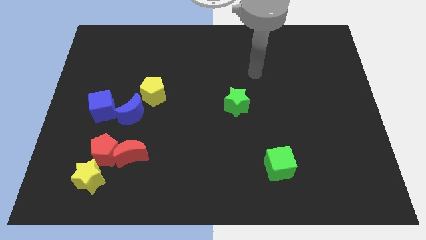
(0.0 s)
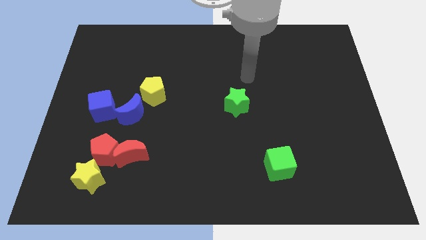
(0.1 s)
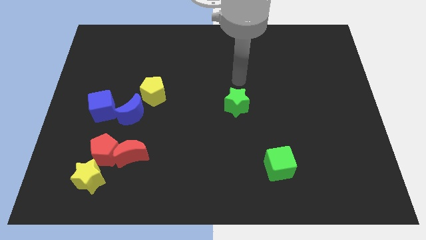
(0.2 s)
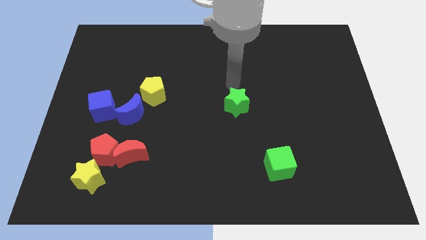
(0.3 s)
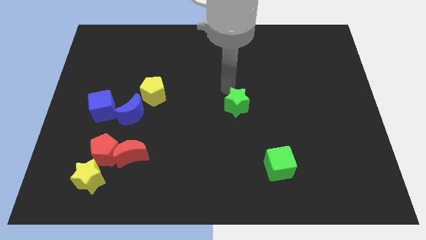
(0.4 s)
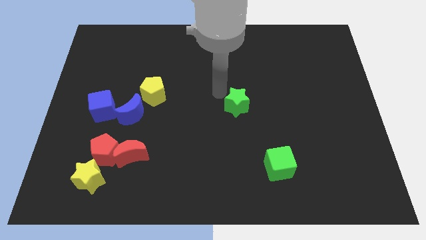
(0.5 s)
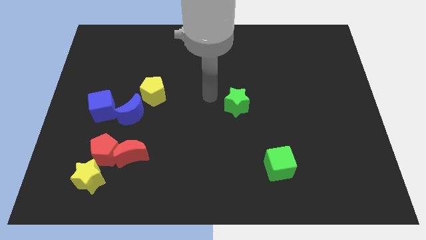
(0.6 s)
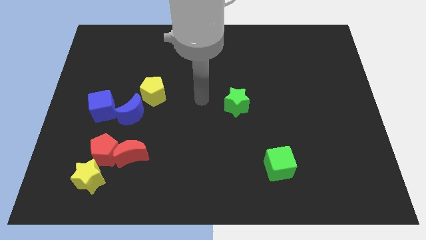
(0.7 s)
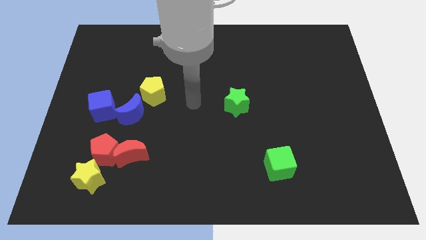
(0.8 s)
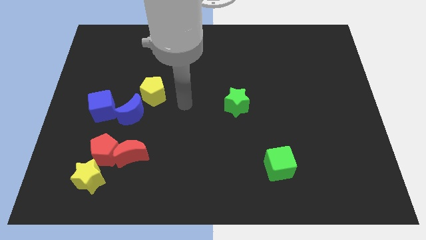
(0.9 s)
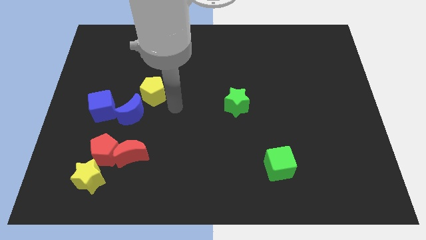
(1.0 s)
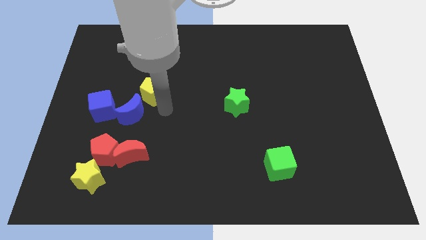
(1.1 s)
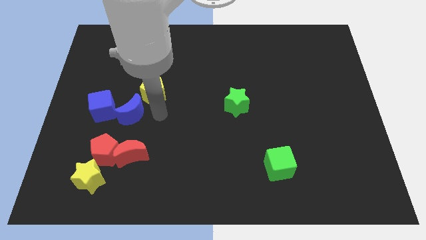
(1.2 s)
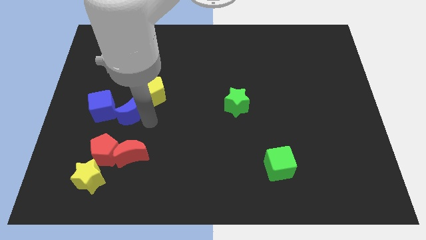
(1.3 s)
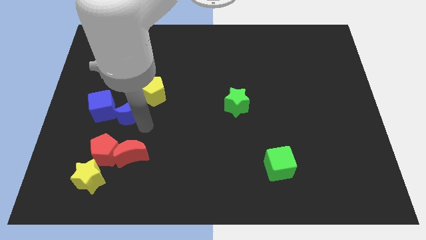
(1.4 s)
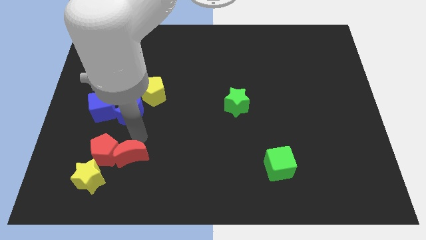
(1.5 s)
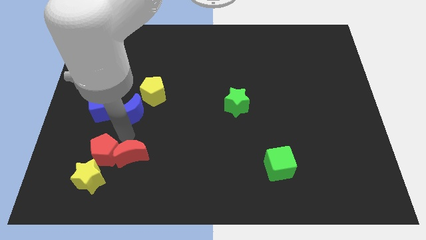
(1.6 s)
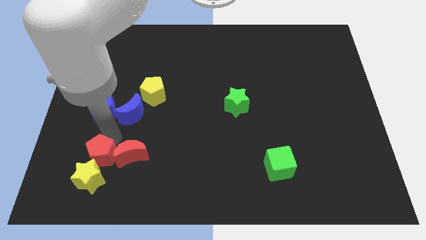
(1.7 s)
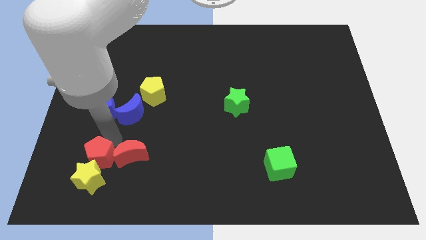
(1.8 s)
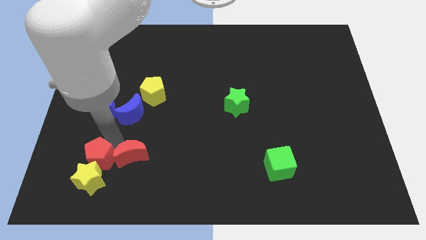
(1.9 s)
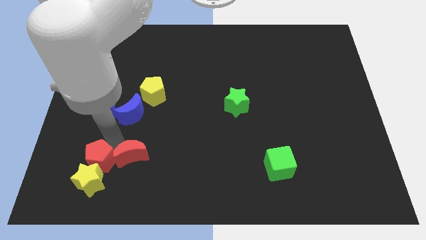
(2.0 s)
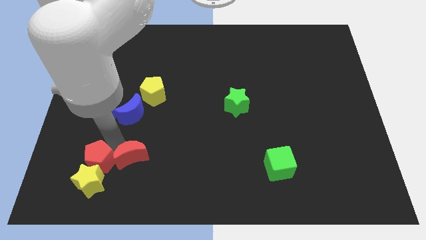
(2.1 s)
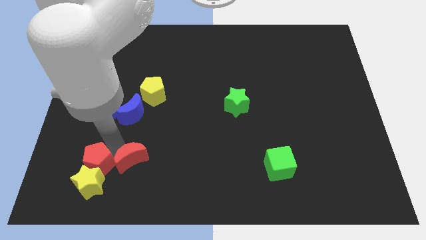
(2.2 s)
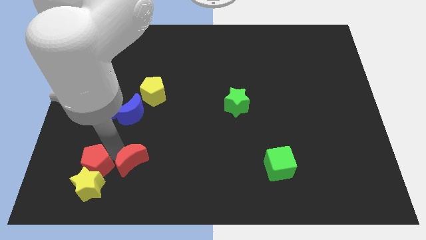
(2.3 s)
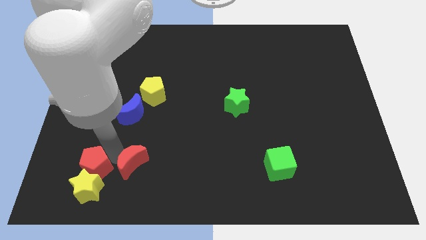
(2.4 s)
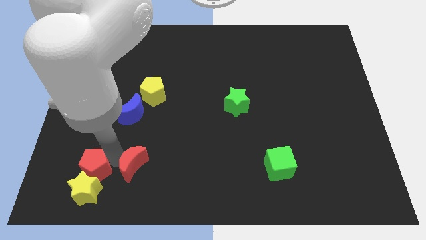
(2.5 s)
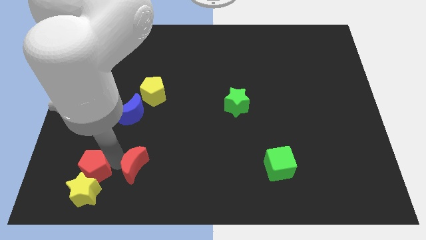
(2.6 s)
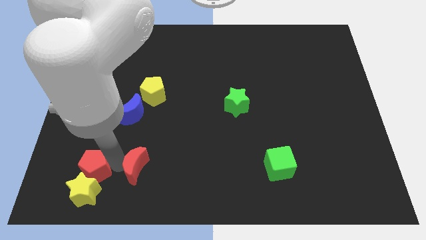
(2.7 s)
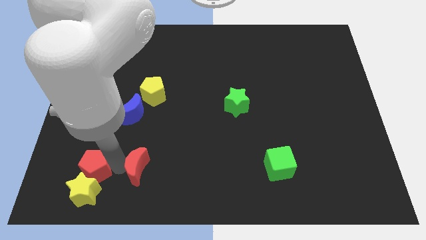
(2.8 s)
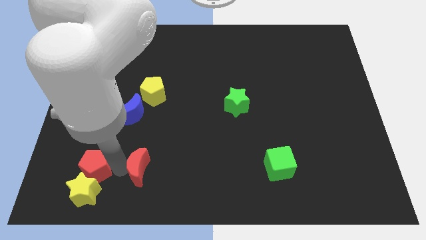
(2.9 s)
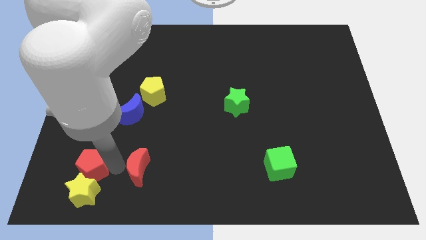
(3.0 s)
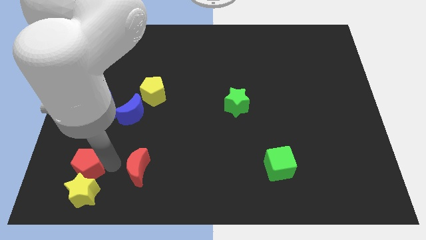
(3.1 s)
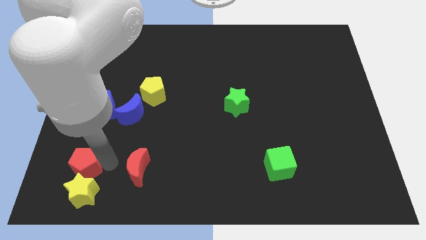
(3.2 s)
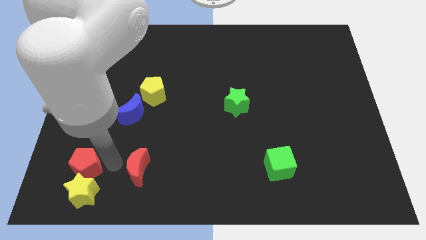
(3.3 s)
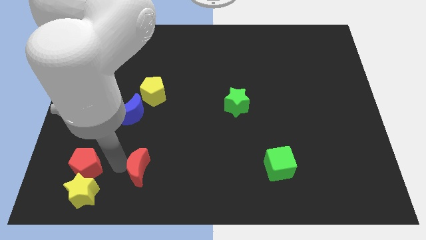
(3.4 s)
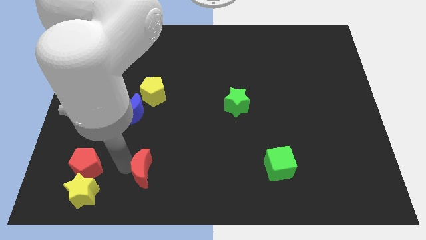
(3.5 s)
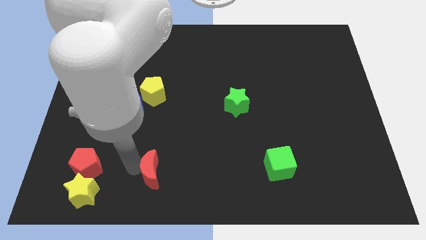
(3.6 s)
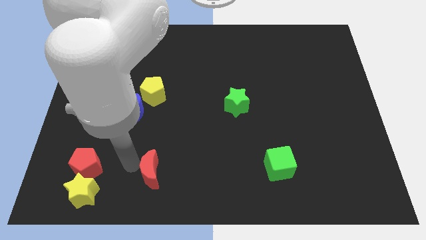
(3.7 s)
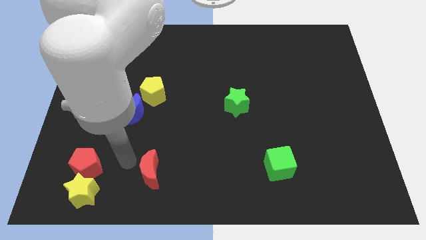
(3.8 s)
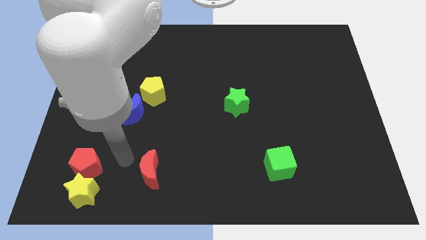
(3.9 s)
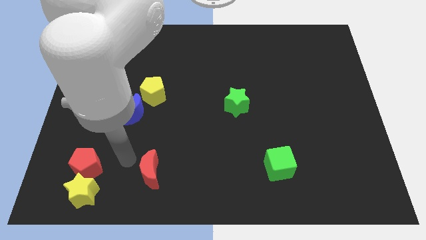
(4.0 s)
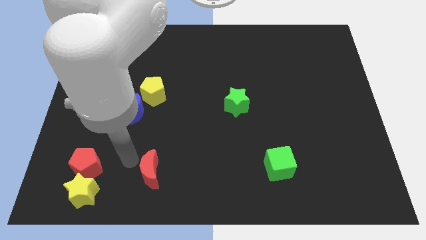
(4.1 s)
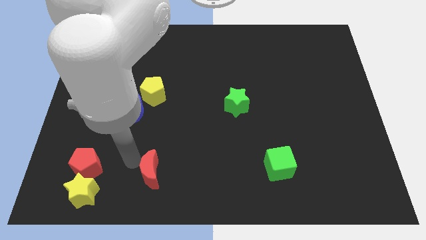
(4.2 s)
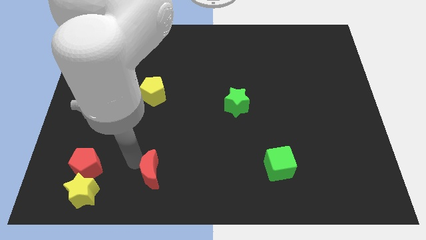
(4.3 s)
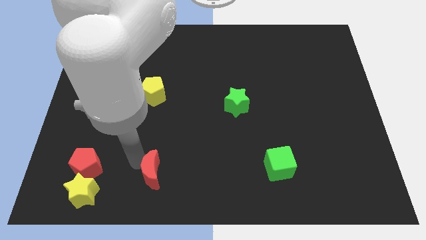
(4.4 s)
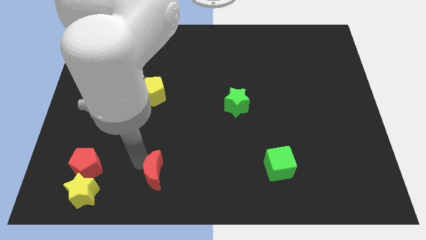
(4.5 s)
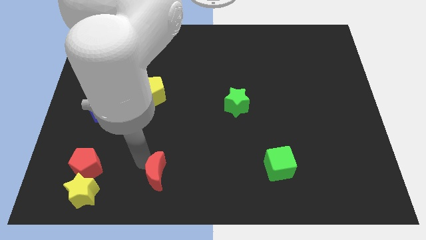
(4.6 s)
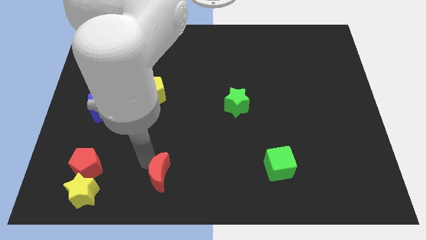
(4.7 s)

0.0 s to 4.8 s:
put the red moon to the bottom side

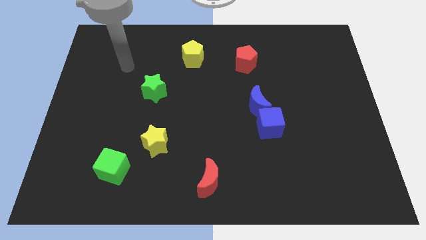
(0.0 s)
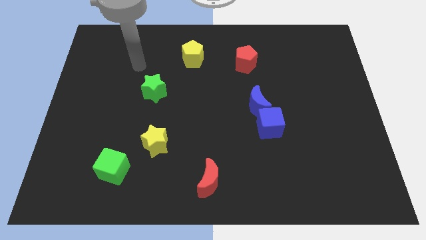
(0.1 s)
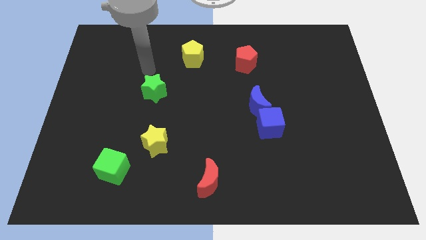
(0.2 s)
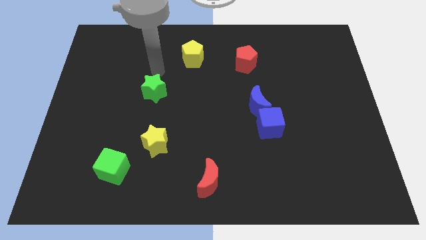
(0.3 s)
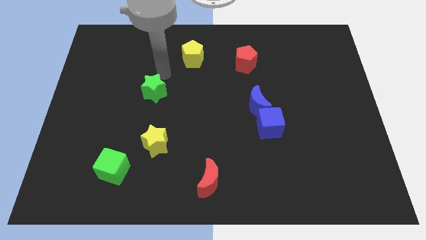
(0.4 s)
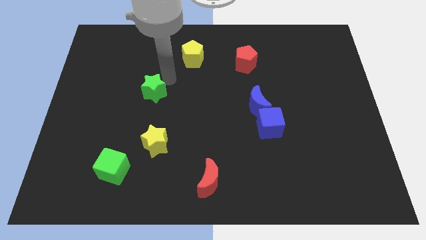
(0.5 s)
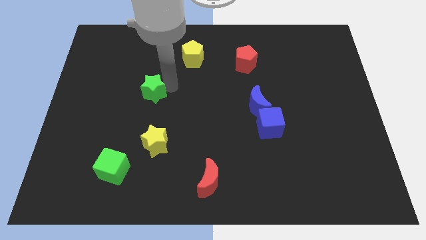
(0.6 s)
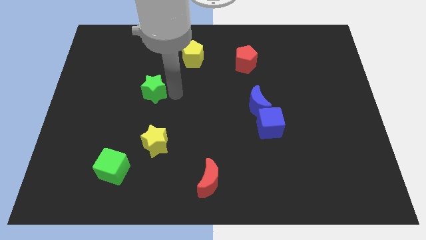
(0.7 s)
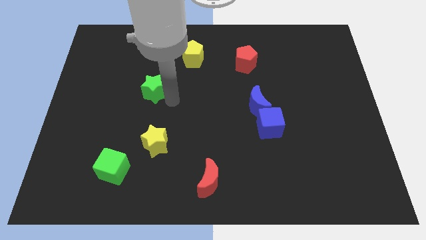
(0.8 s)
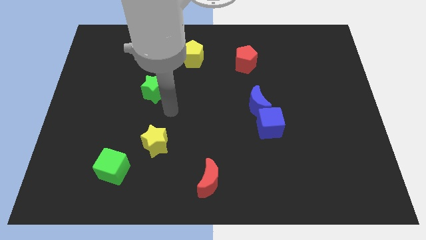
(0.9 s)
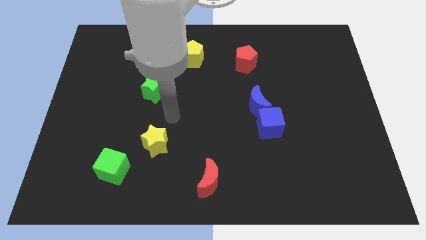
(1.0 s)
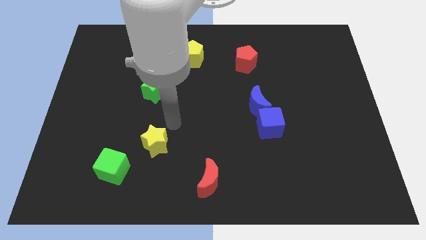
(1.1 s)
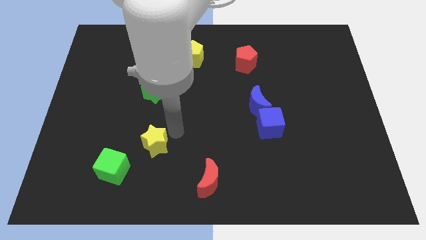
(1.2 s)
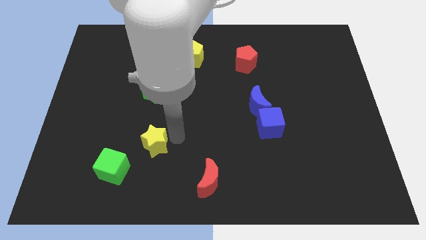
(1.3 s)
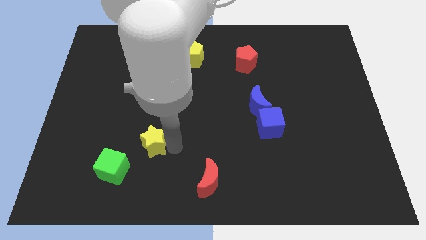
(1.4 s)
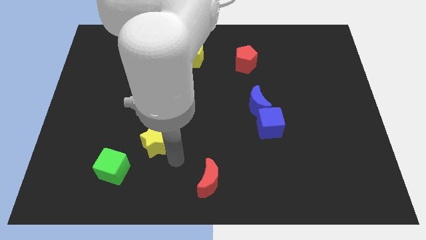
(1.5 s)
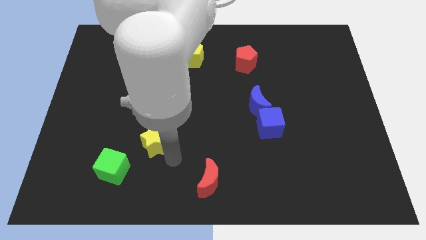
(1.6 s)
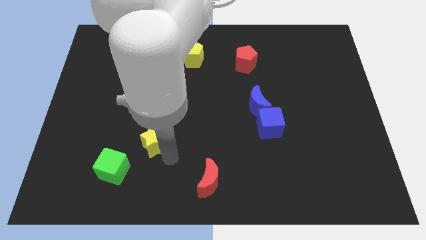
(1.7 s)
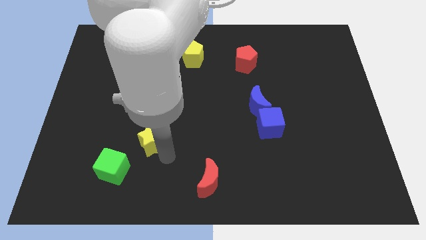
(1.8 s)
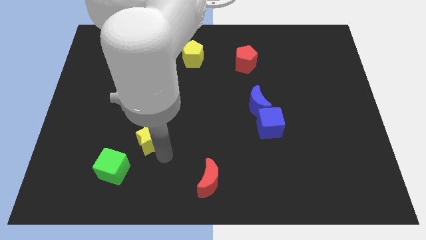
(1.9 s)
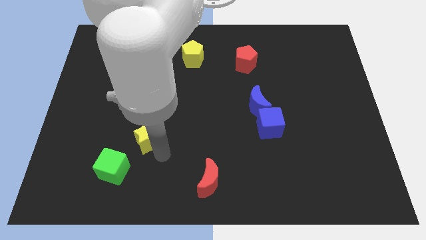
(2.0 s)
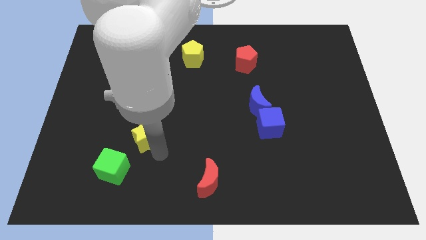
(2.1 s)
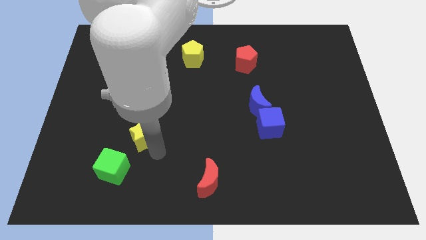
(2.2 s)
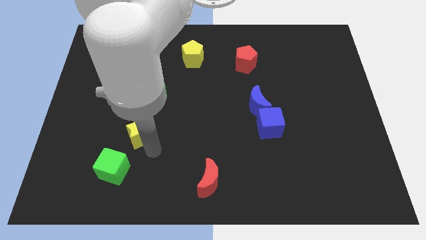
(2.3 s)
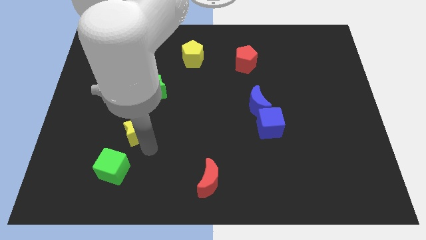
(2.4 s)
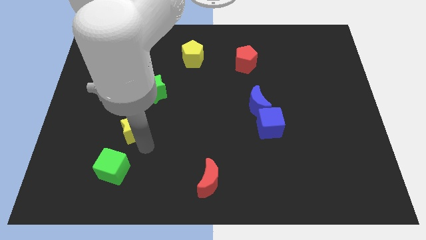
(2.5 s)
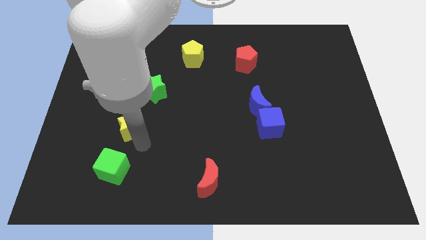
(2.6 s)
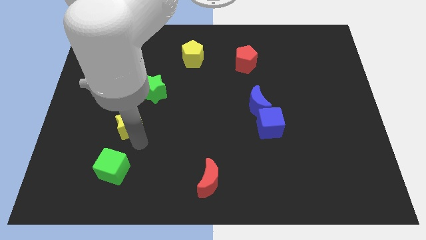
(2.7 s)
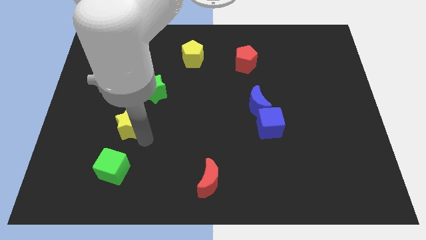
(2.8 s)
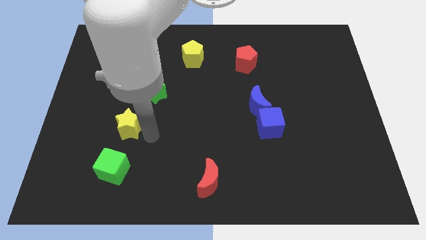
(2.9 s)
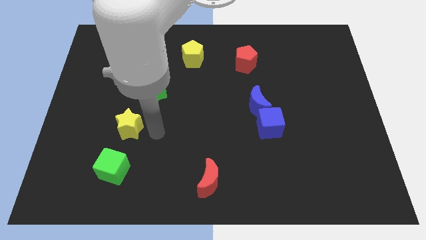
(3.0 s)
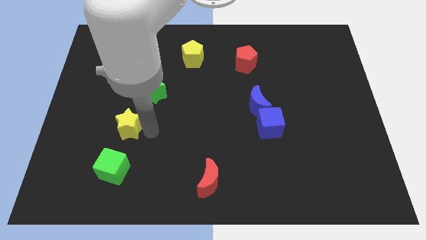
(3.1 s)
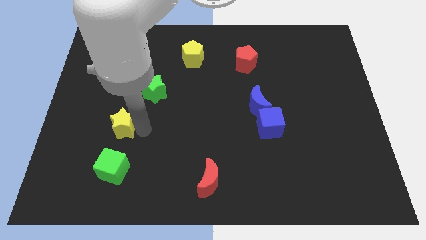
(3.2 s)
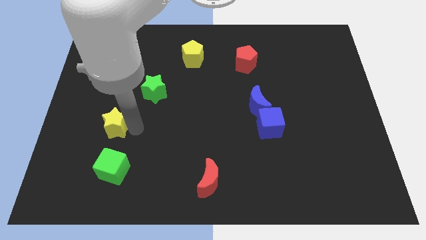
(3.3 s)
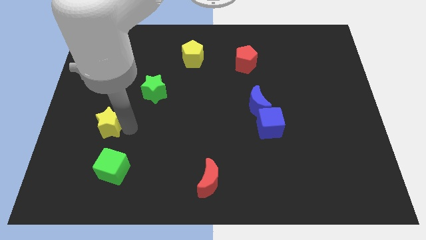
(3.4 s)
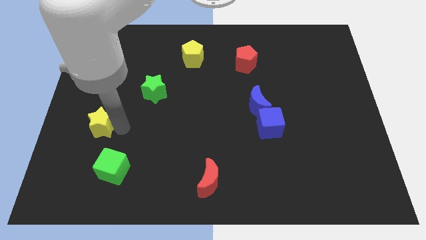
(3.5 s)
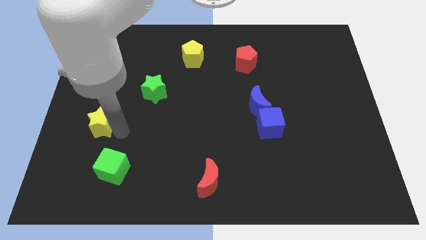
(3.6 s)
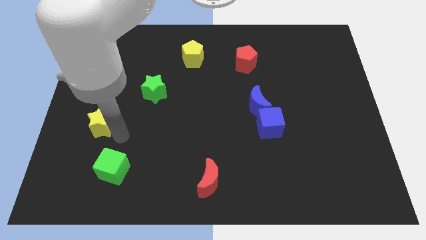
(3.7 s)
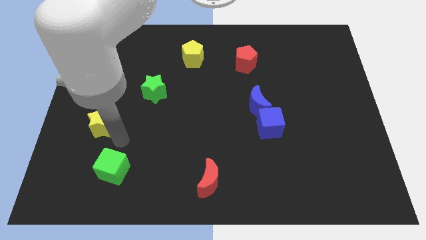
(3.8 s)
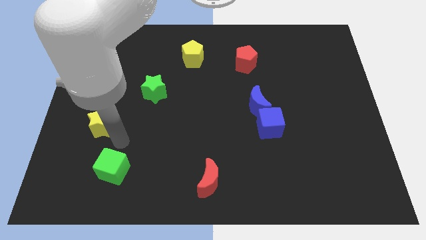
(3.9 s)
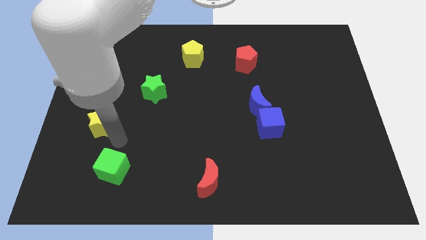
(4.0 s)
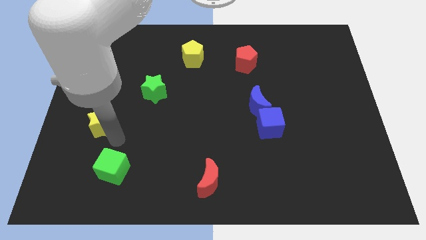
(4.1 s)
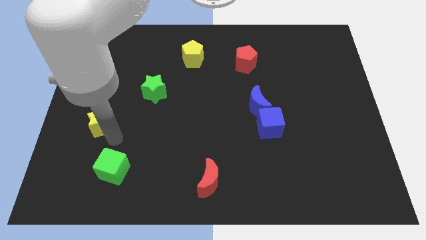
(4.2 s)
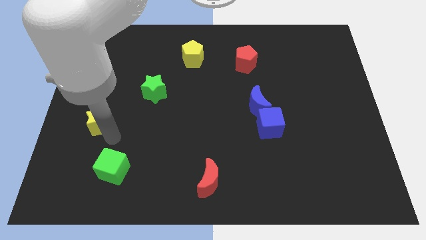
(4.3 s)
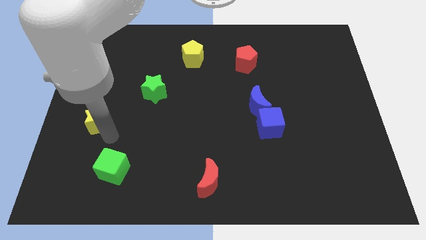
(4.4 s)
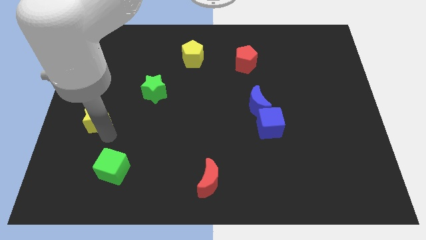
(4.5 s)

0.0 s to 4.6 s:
slide the yellow star to the center left
